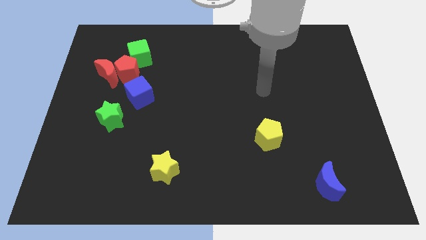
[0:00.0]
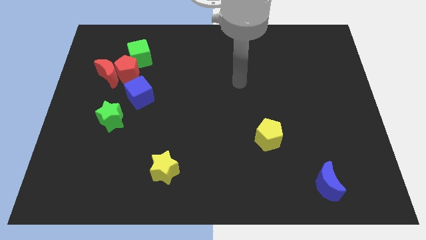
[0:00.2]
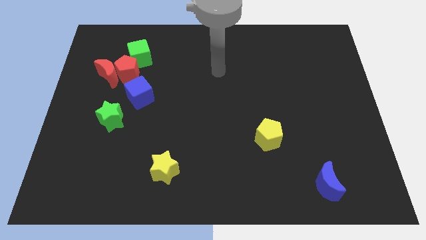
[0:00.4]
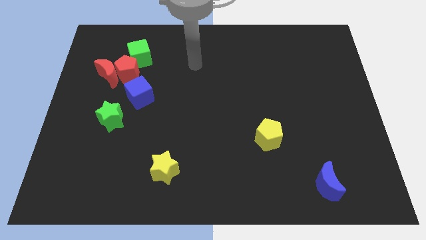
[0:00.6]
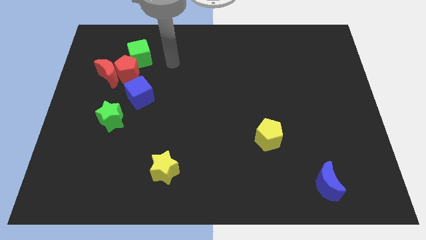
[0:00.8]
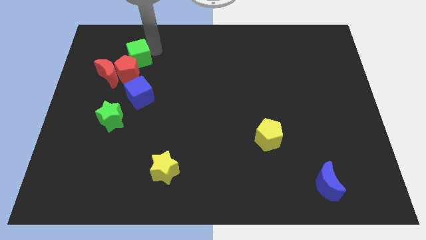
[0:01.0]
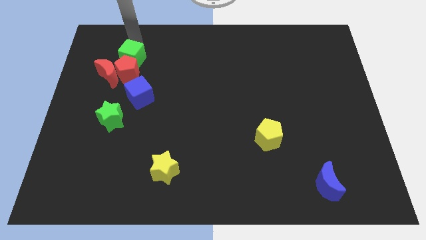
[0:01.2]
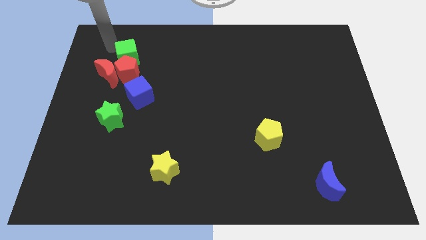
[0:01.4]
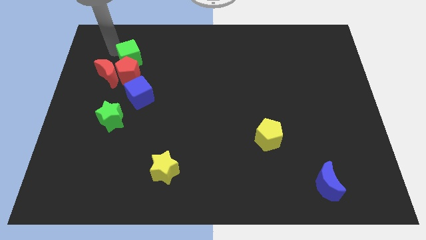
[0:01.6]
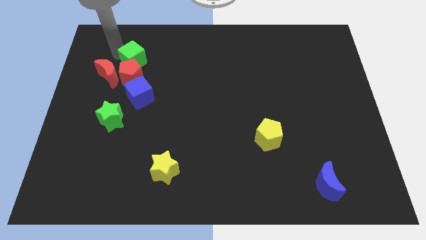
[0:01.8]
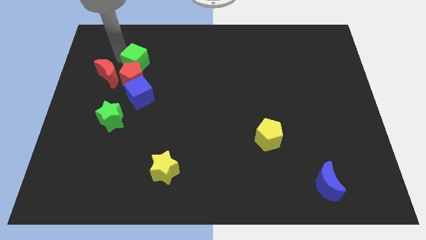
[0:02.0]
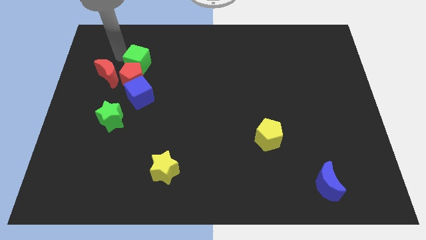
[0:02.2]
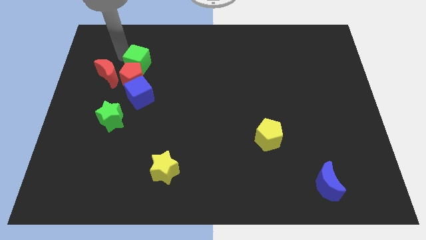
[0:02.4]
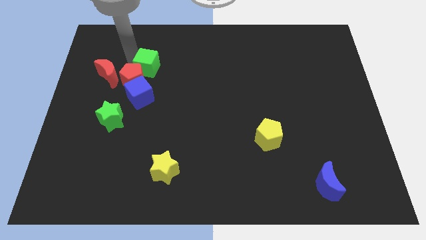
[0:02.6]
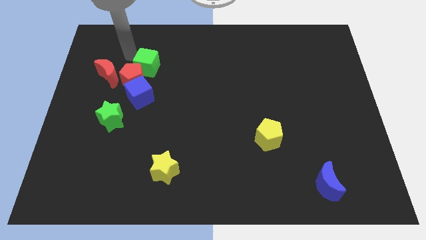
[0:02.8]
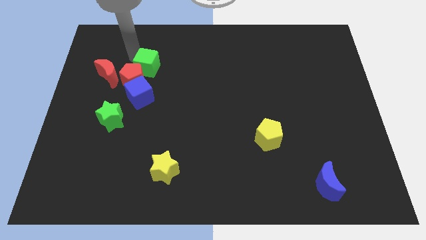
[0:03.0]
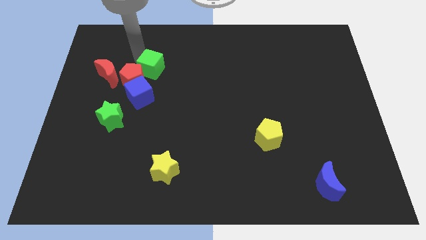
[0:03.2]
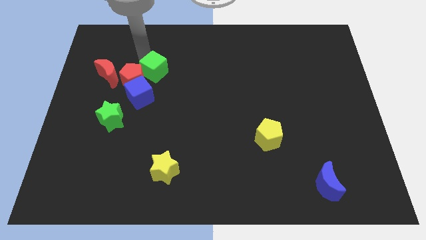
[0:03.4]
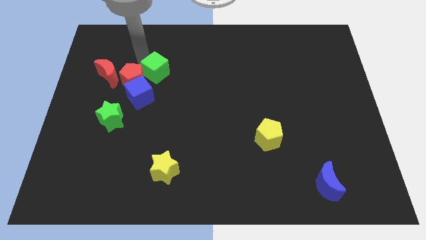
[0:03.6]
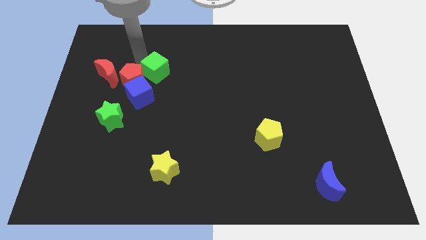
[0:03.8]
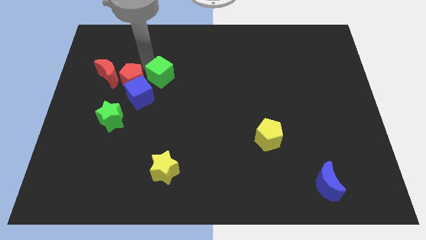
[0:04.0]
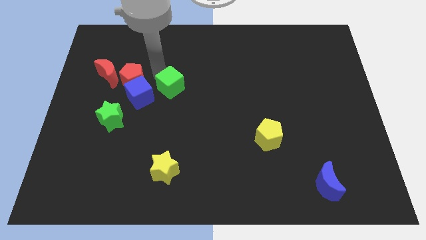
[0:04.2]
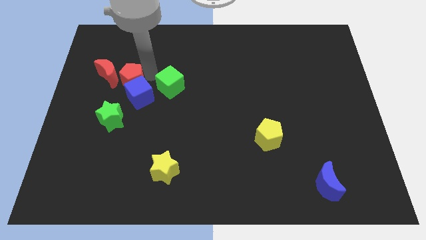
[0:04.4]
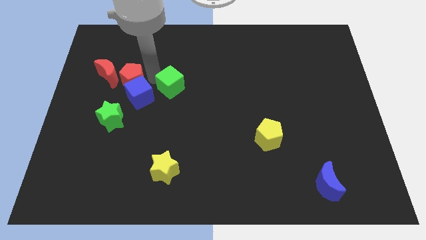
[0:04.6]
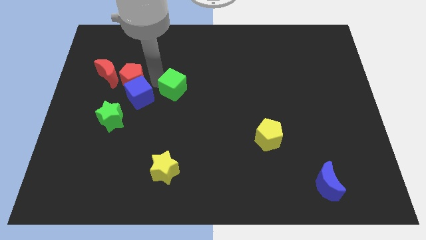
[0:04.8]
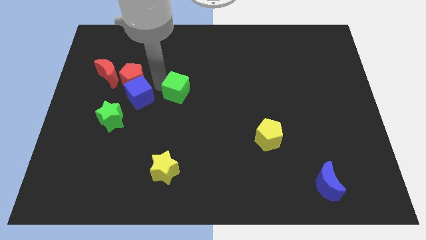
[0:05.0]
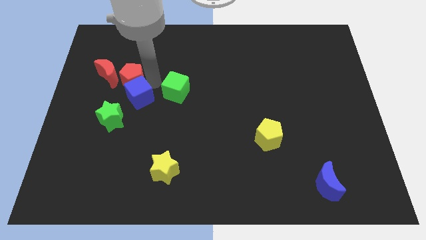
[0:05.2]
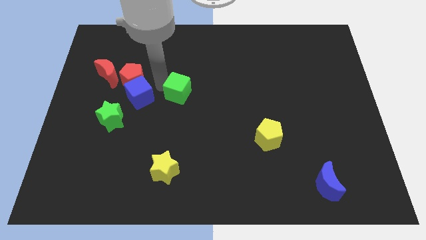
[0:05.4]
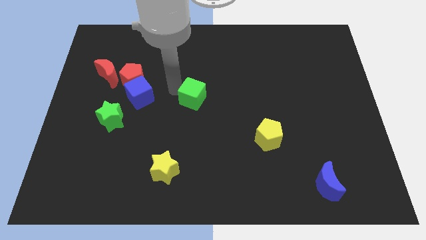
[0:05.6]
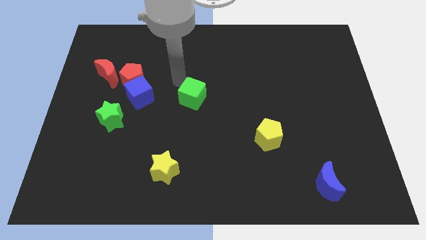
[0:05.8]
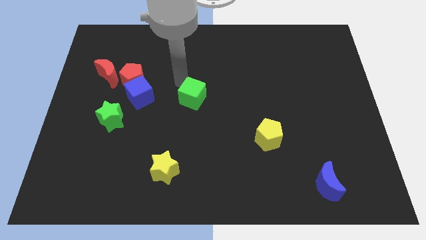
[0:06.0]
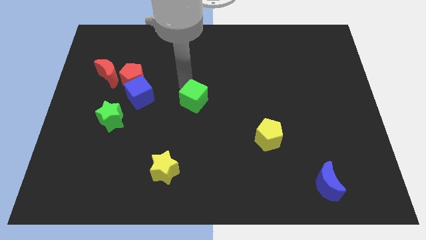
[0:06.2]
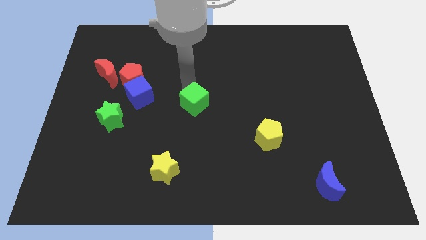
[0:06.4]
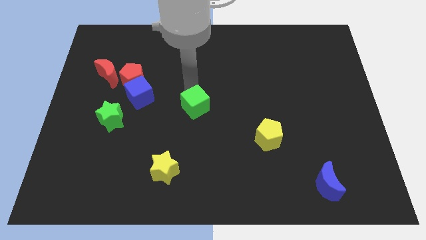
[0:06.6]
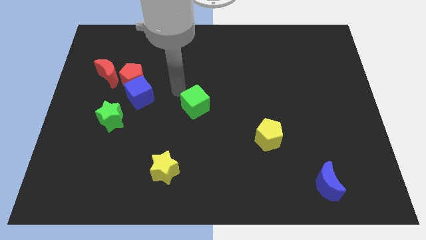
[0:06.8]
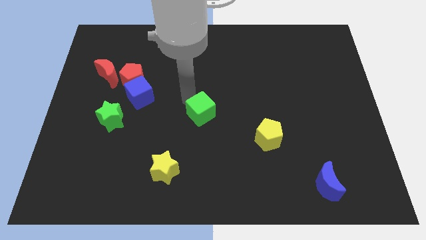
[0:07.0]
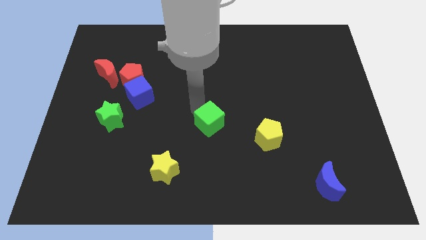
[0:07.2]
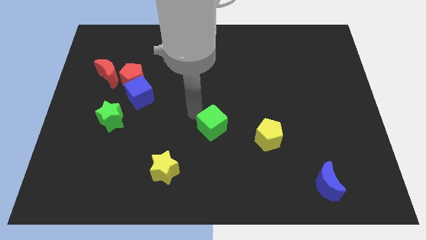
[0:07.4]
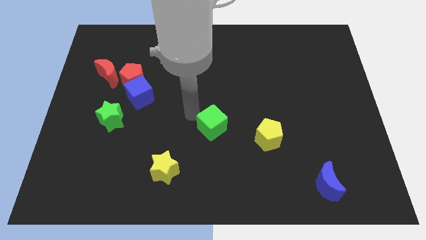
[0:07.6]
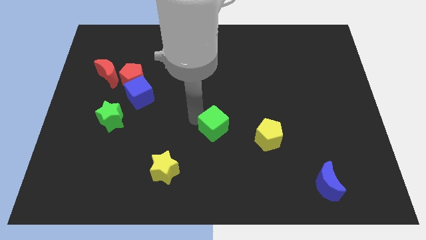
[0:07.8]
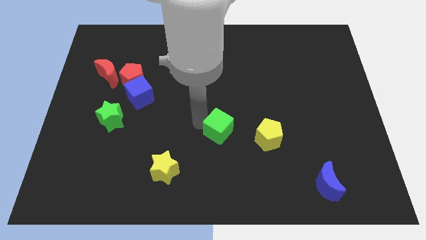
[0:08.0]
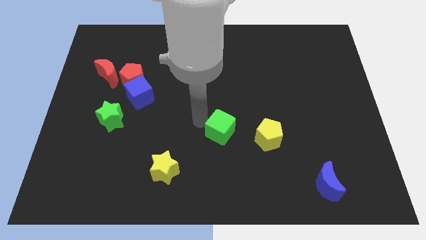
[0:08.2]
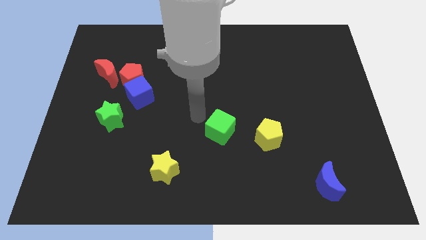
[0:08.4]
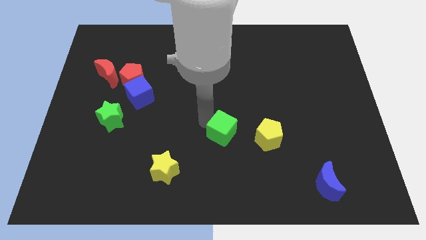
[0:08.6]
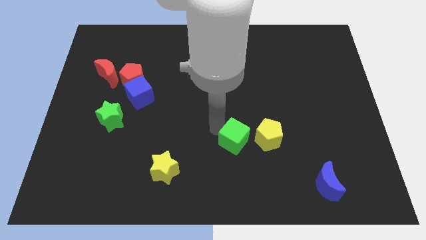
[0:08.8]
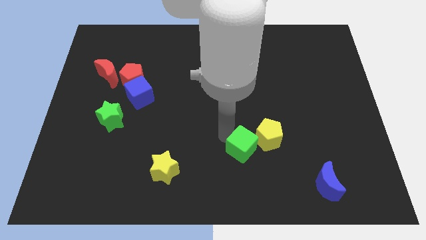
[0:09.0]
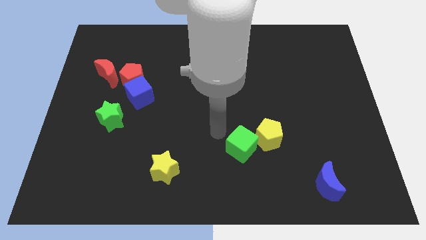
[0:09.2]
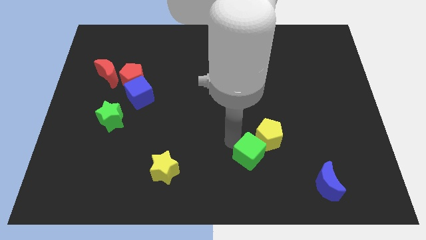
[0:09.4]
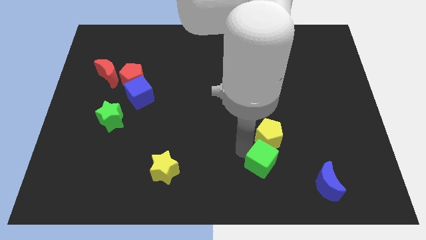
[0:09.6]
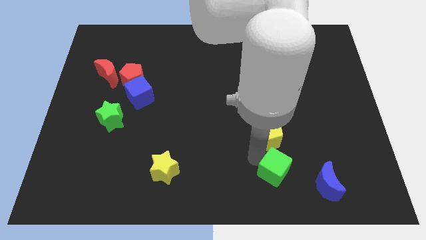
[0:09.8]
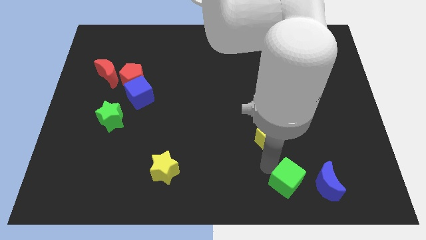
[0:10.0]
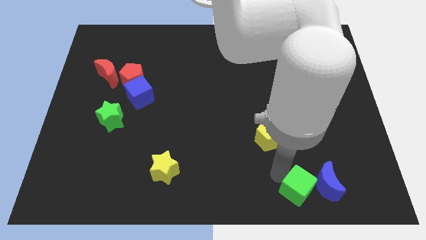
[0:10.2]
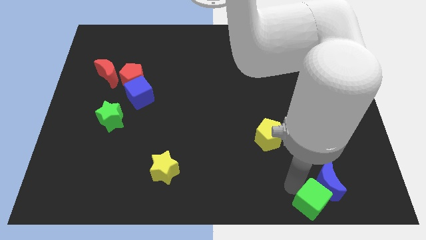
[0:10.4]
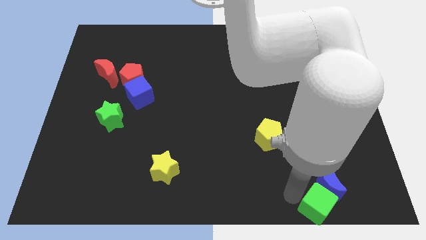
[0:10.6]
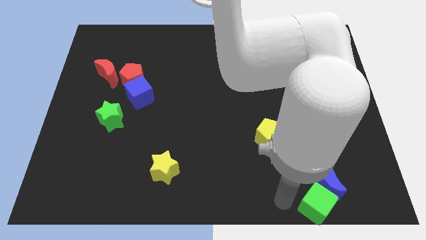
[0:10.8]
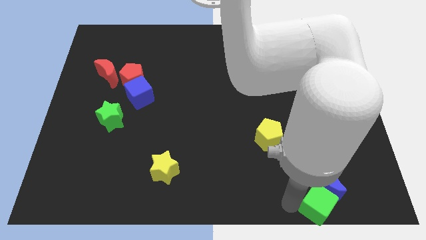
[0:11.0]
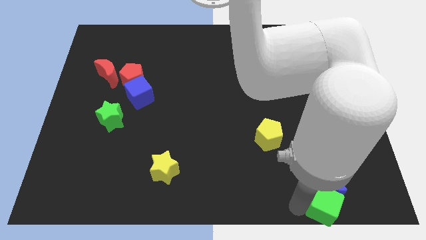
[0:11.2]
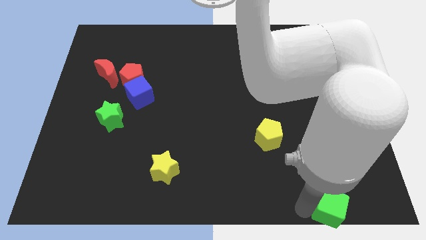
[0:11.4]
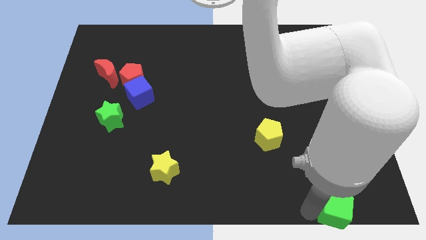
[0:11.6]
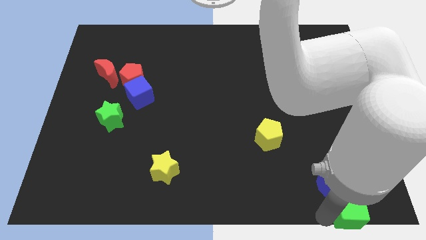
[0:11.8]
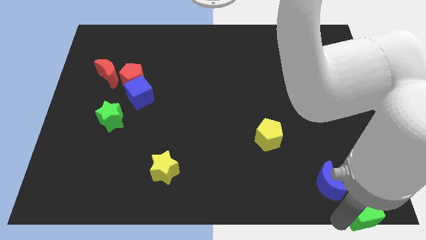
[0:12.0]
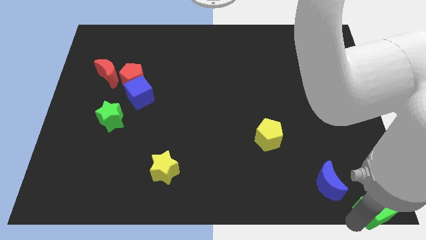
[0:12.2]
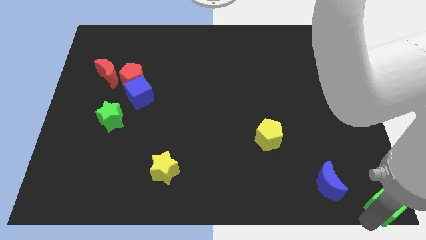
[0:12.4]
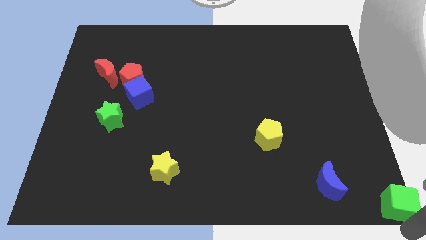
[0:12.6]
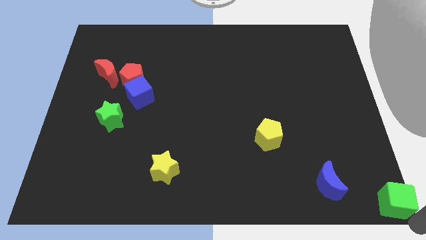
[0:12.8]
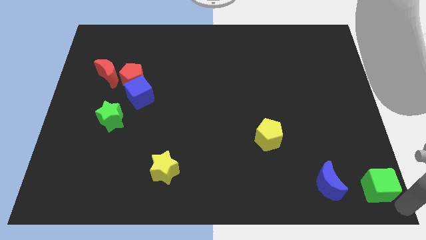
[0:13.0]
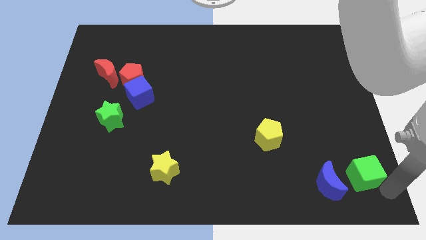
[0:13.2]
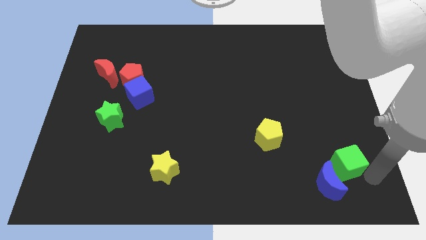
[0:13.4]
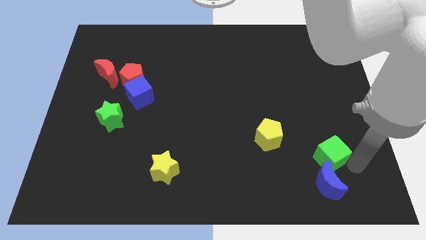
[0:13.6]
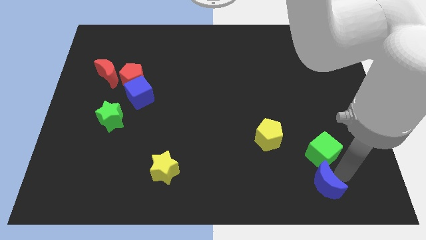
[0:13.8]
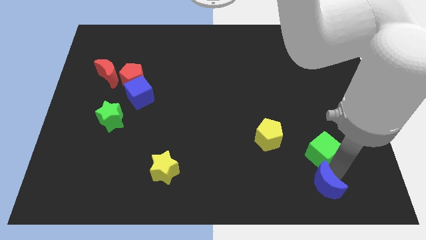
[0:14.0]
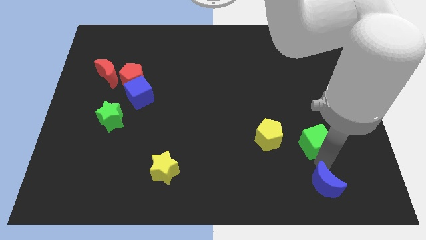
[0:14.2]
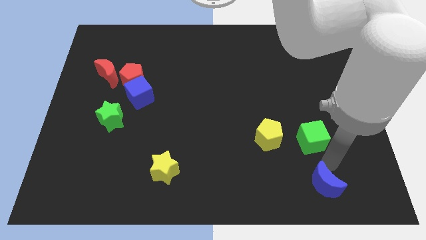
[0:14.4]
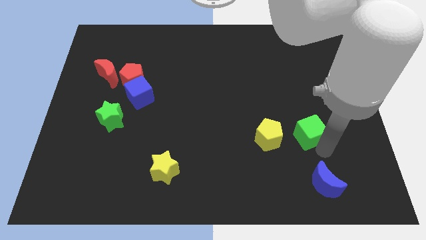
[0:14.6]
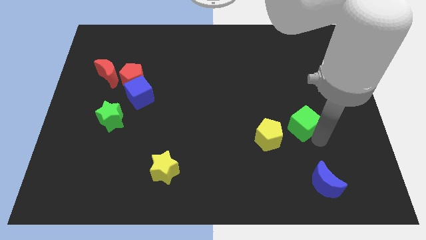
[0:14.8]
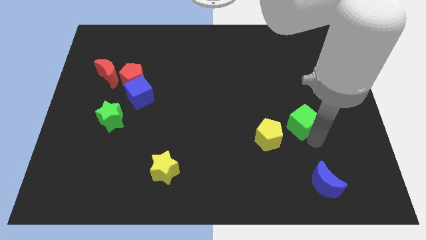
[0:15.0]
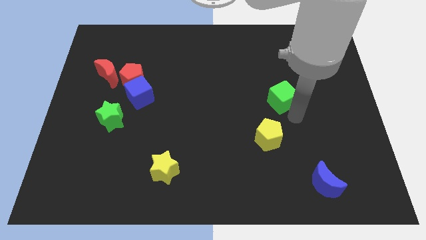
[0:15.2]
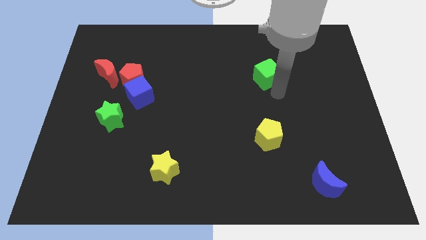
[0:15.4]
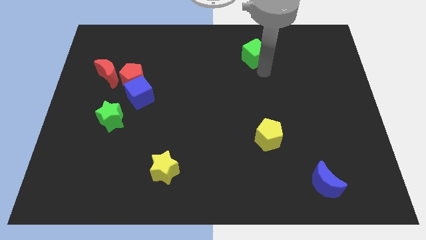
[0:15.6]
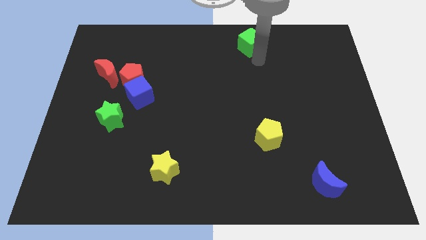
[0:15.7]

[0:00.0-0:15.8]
move the green cube to the towards your base
